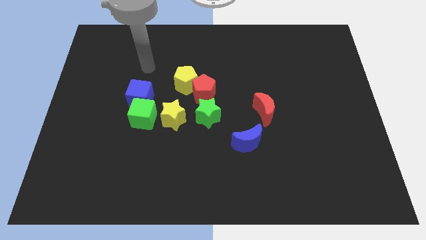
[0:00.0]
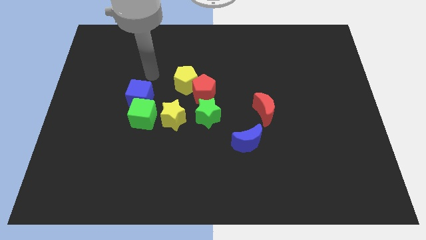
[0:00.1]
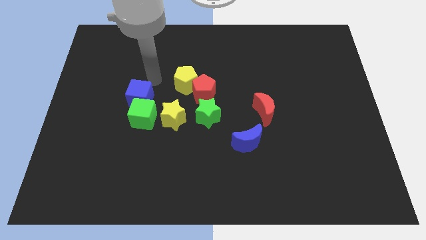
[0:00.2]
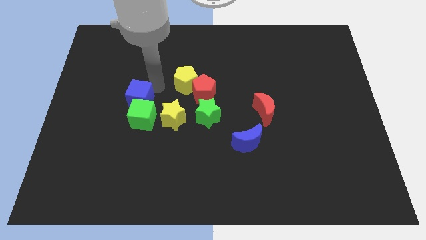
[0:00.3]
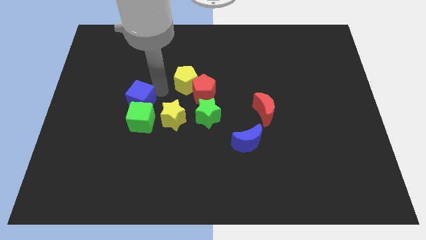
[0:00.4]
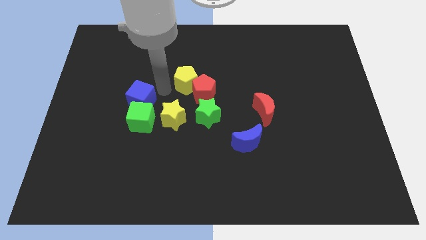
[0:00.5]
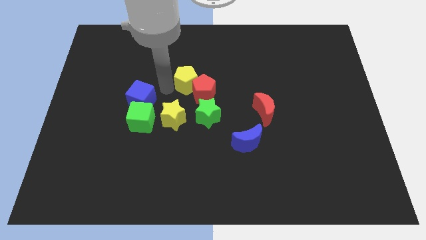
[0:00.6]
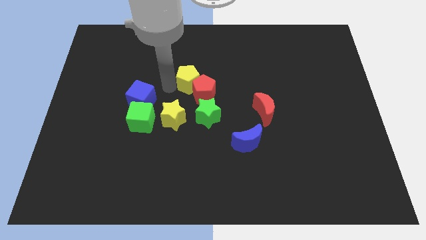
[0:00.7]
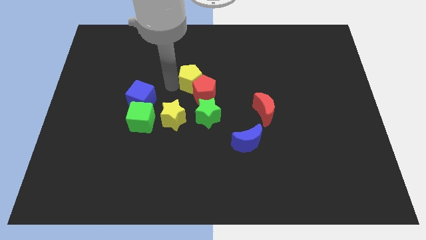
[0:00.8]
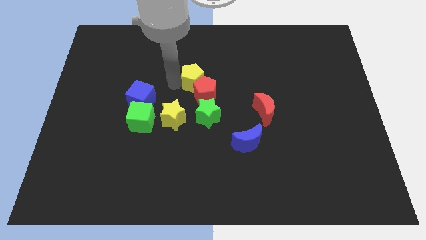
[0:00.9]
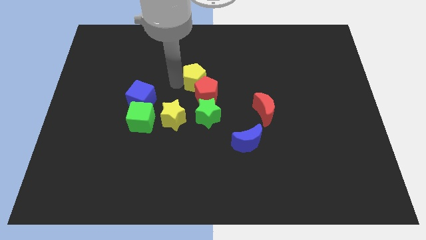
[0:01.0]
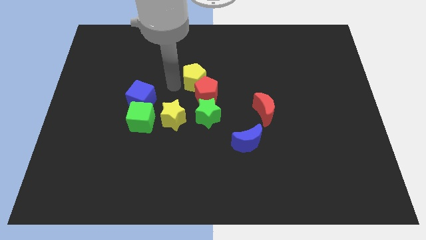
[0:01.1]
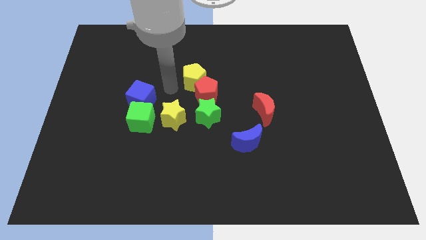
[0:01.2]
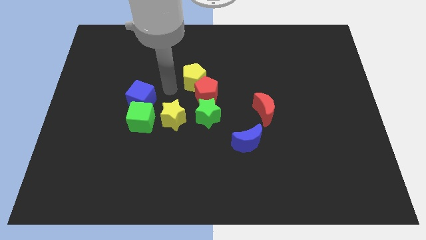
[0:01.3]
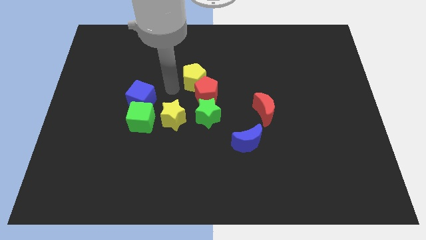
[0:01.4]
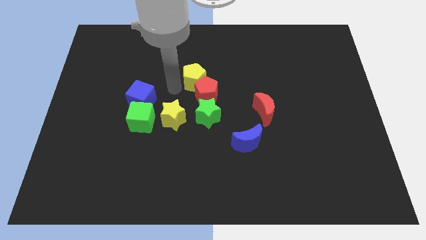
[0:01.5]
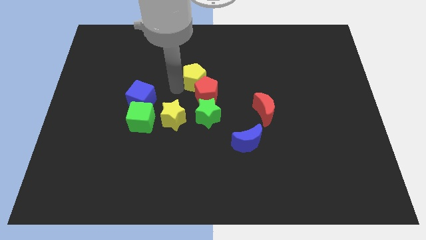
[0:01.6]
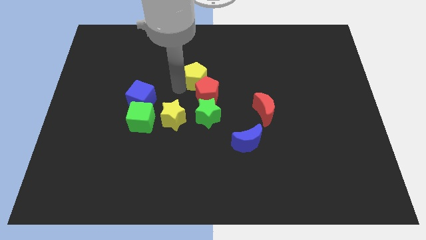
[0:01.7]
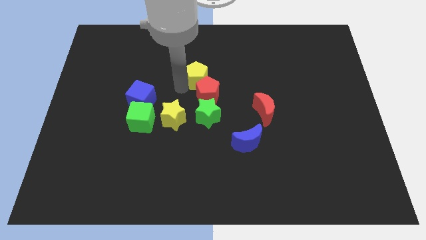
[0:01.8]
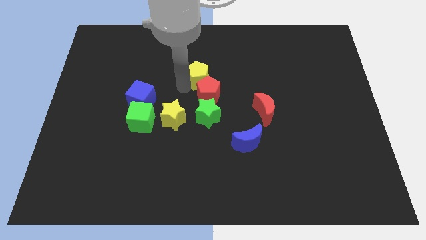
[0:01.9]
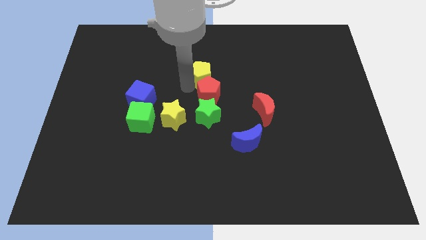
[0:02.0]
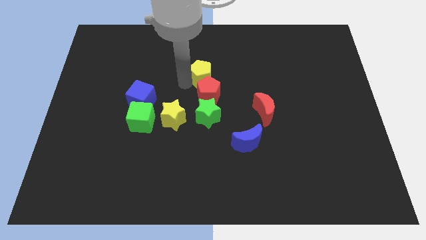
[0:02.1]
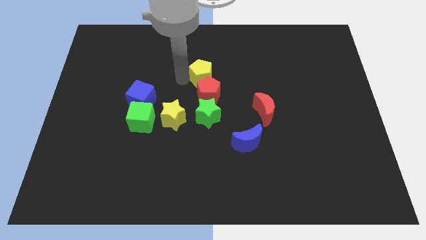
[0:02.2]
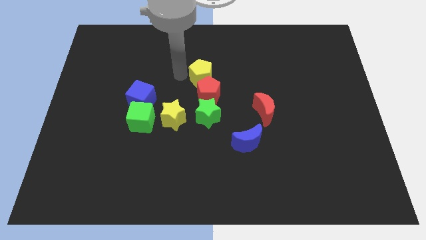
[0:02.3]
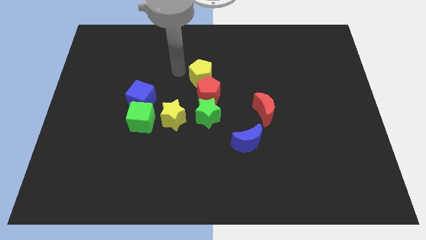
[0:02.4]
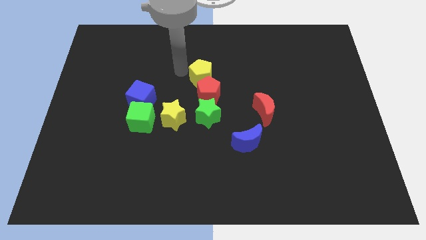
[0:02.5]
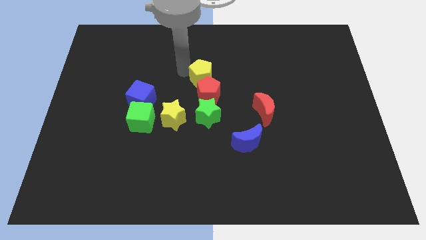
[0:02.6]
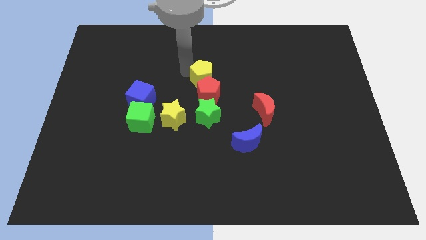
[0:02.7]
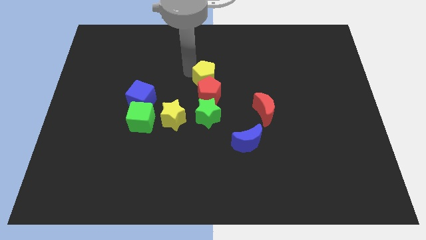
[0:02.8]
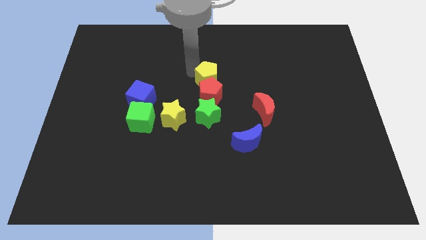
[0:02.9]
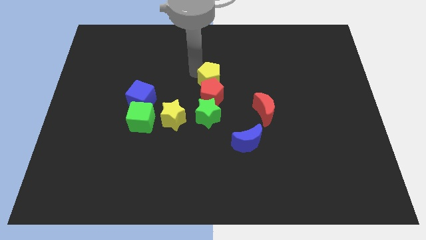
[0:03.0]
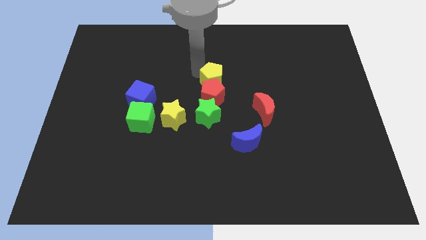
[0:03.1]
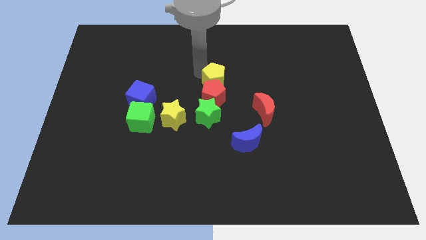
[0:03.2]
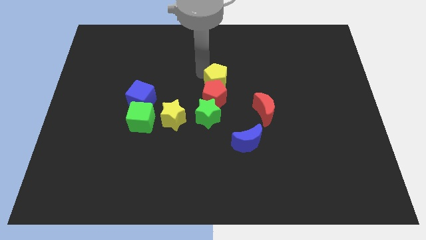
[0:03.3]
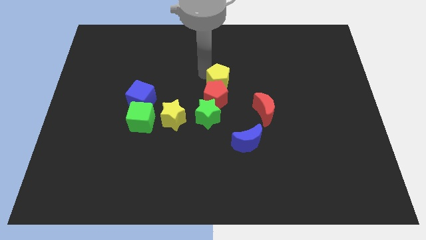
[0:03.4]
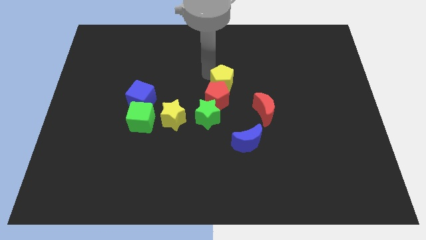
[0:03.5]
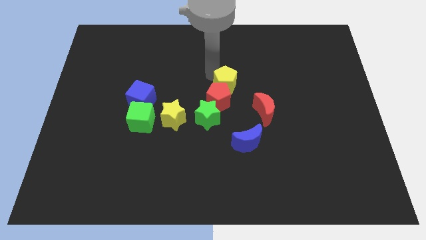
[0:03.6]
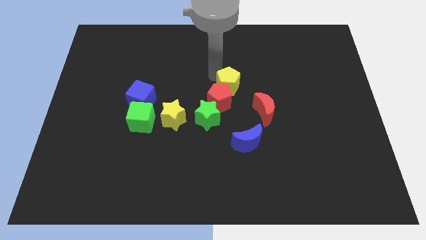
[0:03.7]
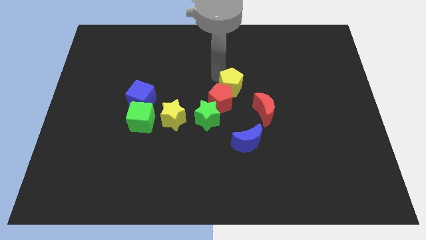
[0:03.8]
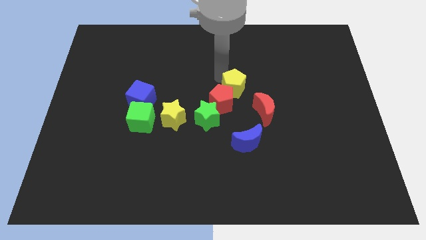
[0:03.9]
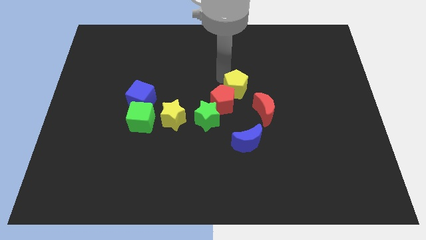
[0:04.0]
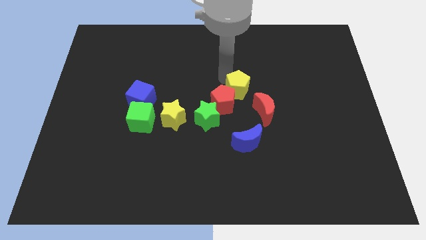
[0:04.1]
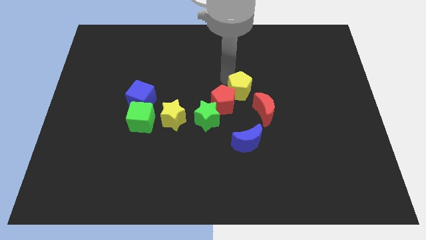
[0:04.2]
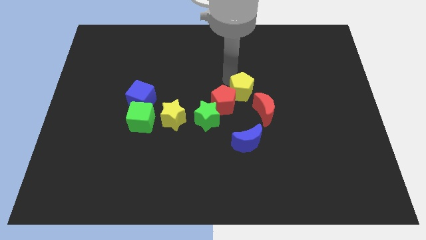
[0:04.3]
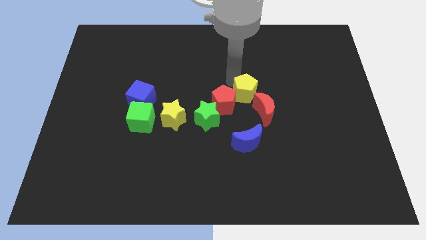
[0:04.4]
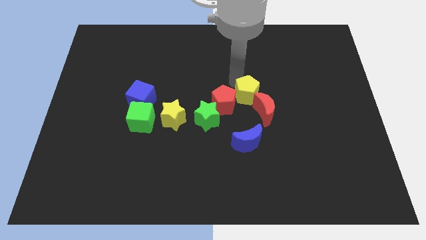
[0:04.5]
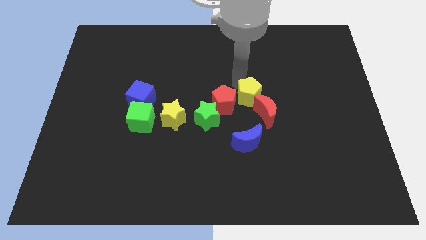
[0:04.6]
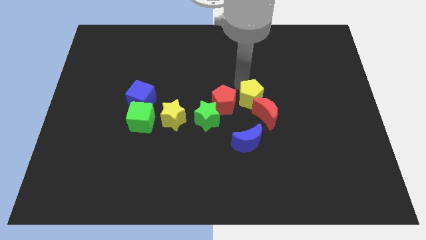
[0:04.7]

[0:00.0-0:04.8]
slide the yellow pentagon to the red moon

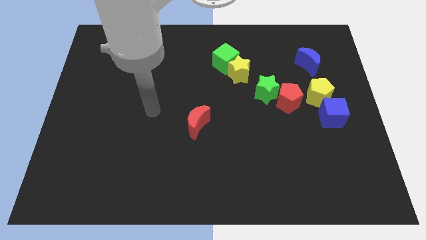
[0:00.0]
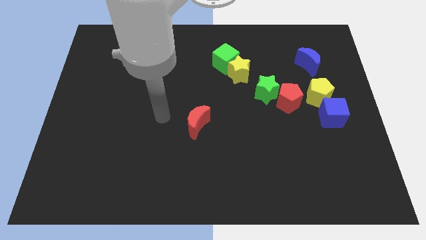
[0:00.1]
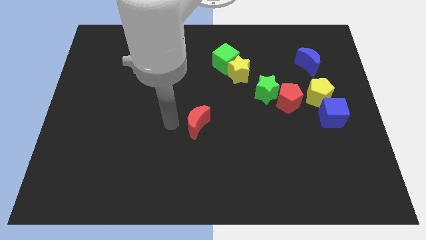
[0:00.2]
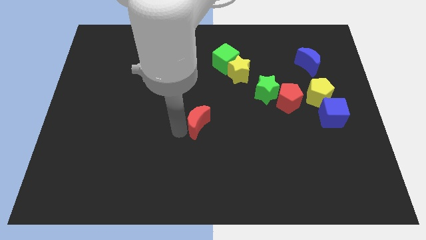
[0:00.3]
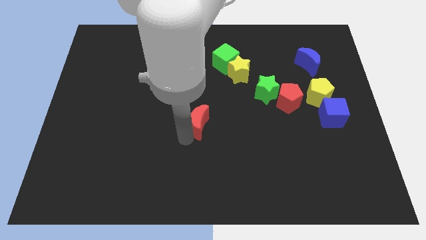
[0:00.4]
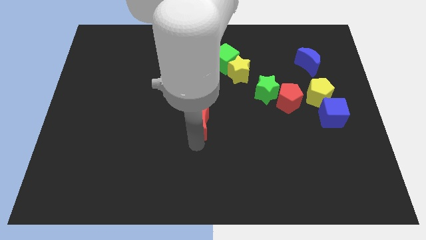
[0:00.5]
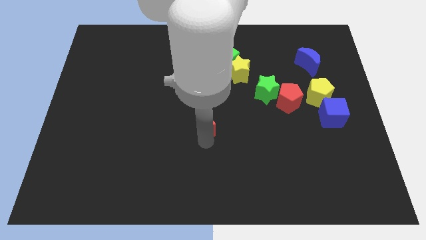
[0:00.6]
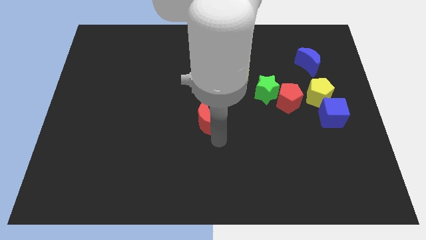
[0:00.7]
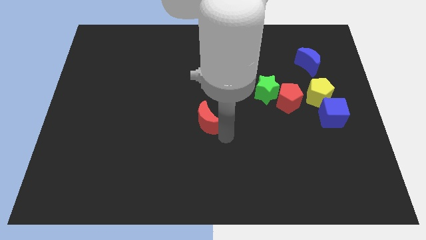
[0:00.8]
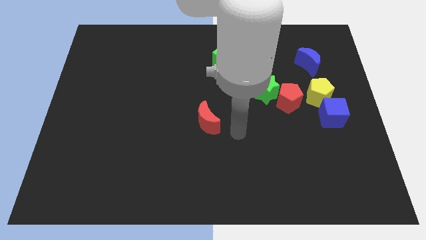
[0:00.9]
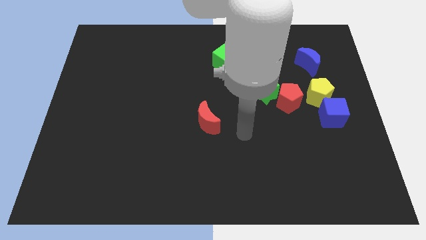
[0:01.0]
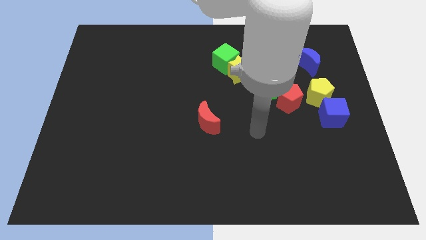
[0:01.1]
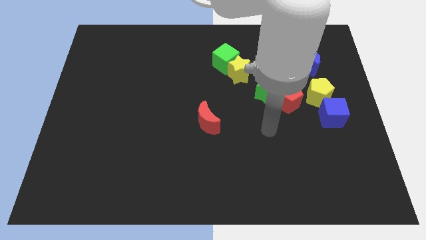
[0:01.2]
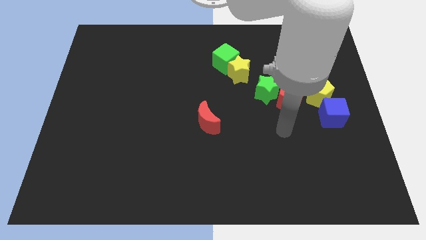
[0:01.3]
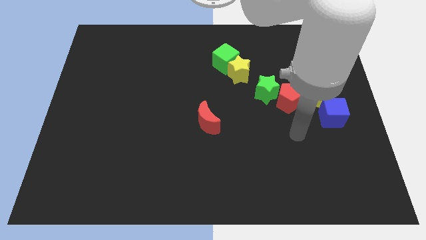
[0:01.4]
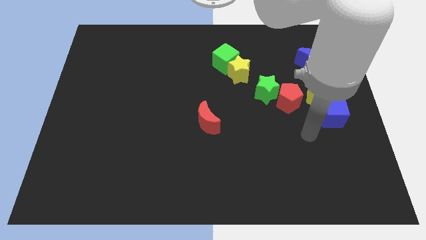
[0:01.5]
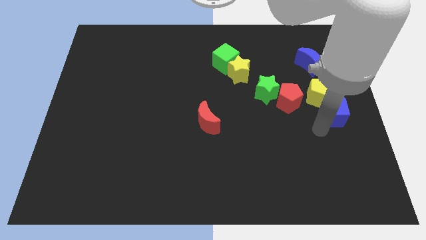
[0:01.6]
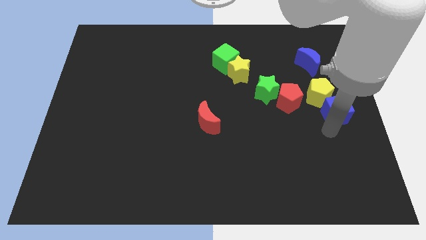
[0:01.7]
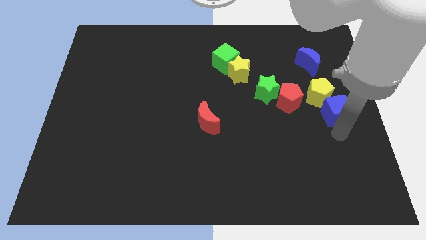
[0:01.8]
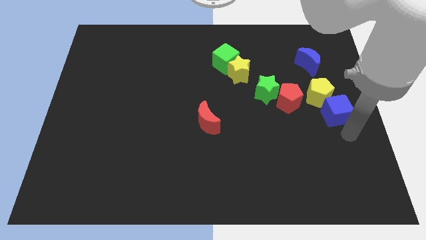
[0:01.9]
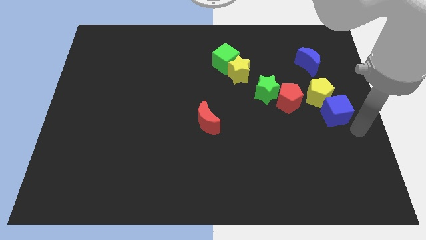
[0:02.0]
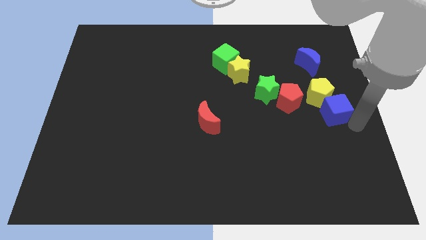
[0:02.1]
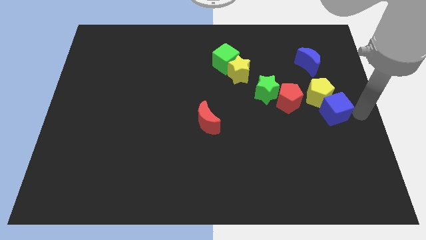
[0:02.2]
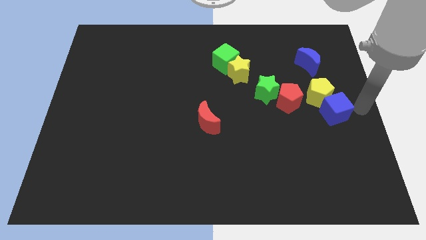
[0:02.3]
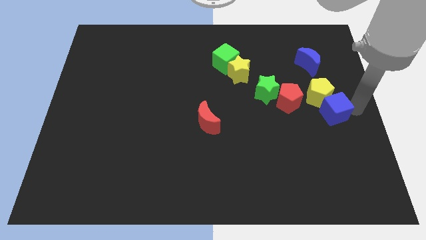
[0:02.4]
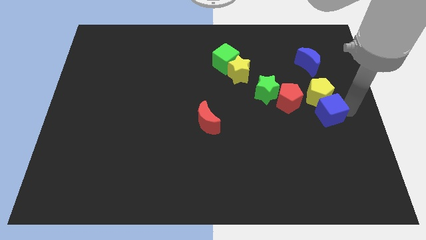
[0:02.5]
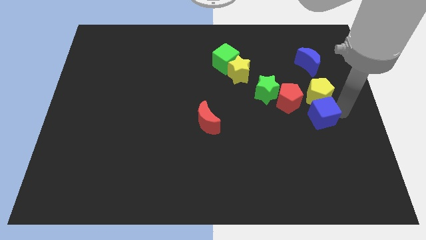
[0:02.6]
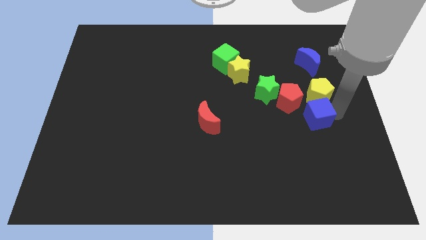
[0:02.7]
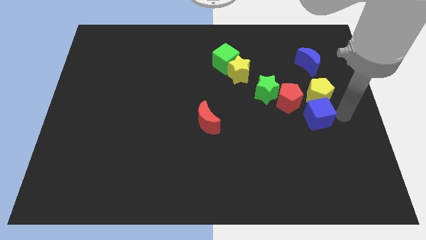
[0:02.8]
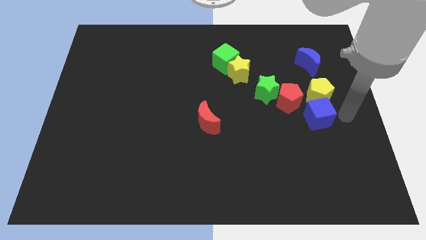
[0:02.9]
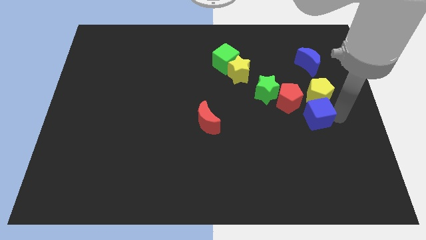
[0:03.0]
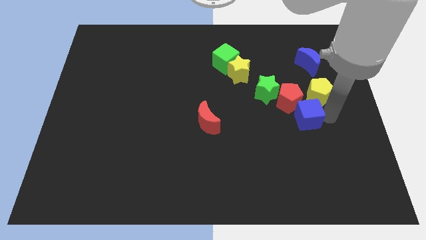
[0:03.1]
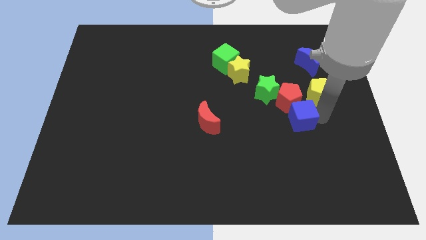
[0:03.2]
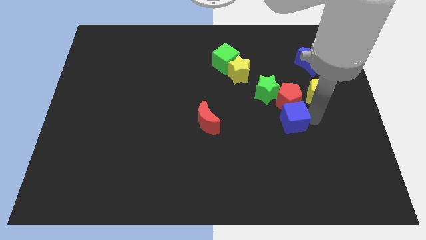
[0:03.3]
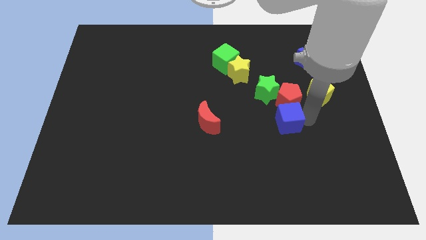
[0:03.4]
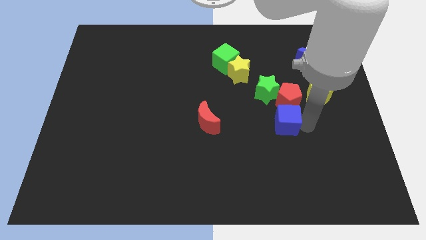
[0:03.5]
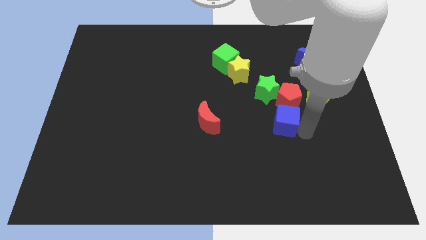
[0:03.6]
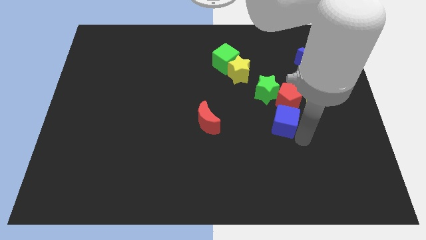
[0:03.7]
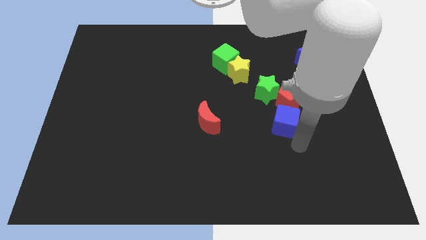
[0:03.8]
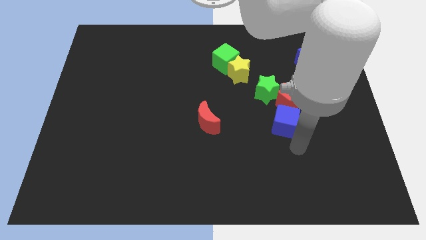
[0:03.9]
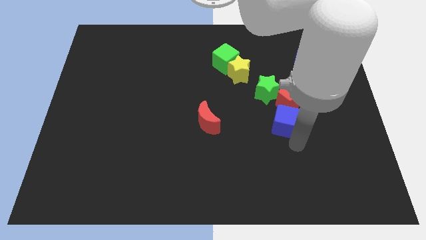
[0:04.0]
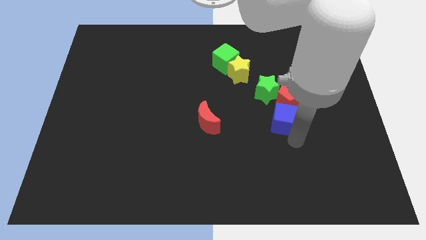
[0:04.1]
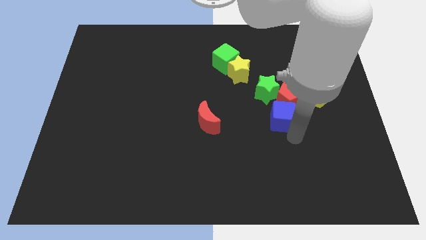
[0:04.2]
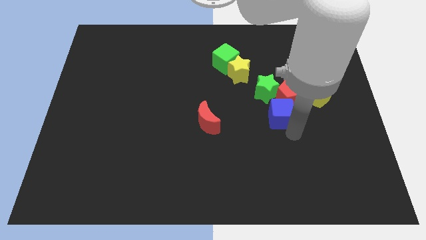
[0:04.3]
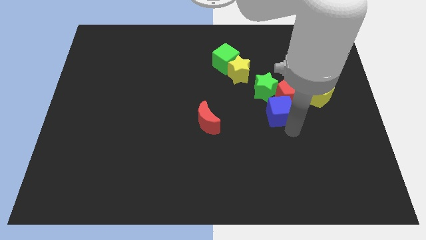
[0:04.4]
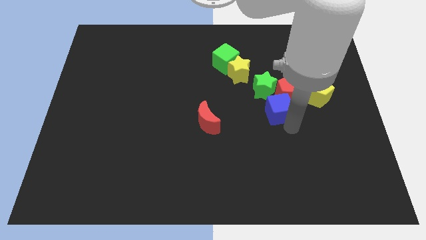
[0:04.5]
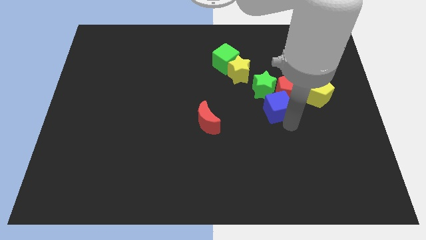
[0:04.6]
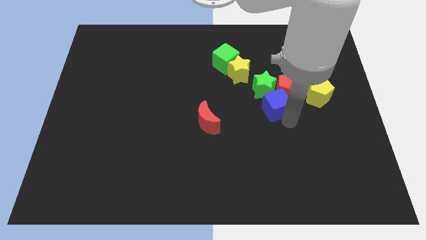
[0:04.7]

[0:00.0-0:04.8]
slide the blue cube close to the green star
